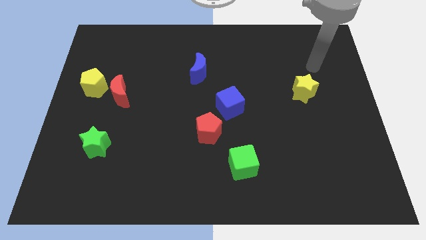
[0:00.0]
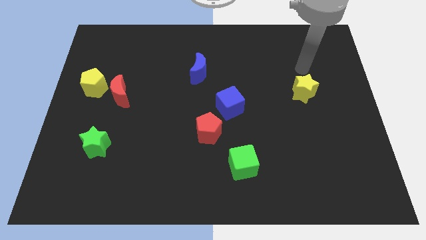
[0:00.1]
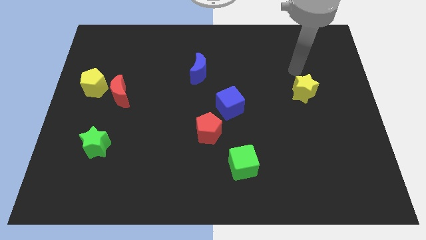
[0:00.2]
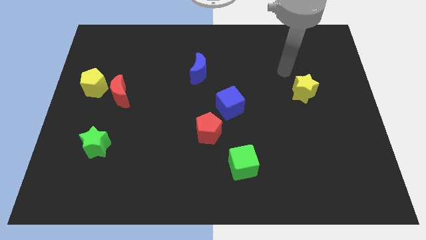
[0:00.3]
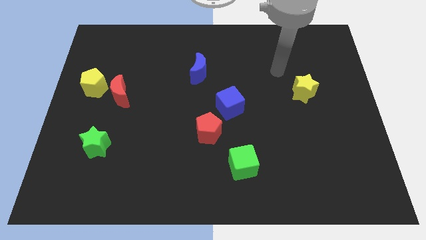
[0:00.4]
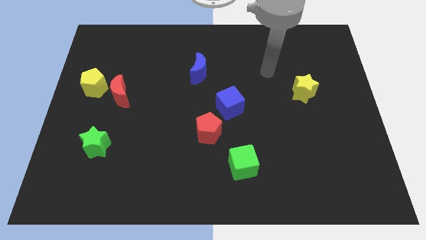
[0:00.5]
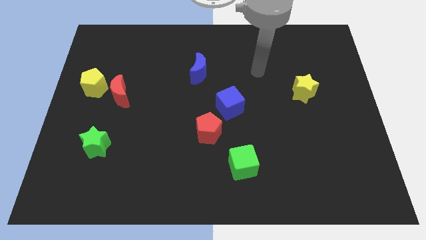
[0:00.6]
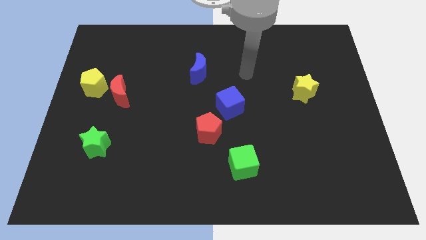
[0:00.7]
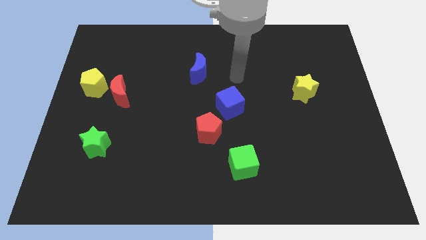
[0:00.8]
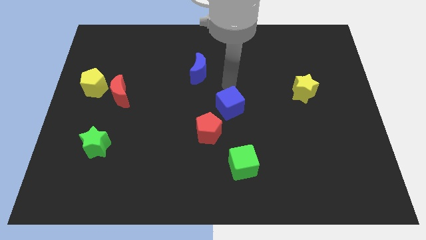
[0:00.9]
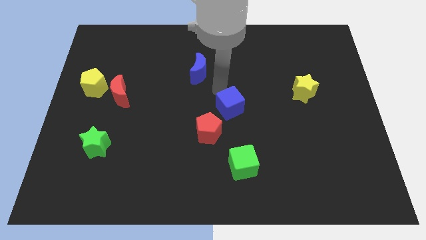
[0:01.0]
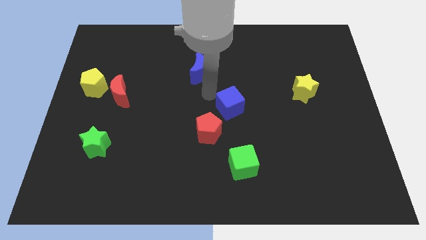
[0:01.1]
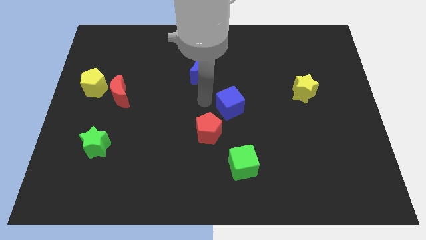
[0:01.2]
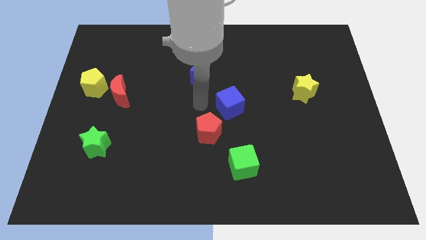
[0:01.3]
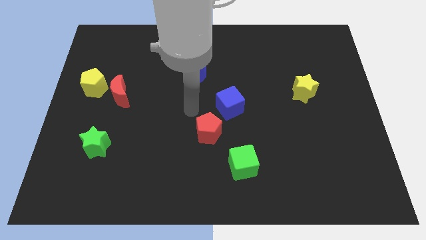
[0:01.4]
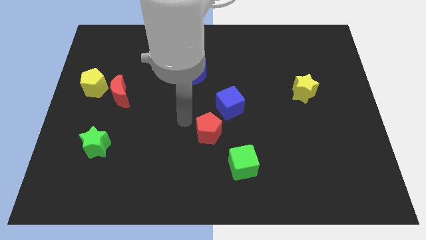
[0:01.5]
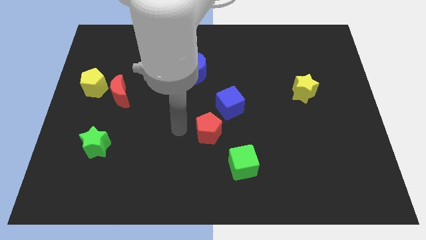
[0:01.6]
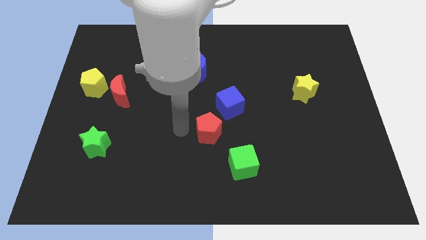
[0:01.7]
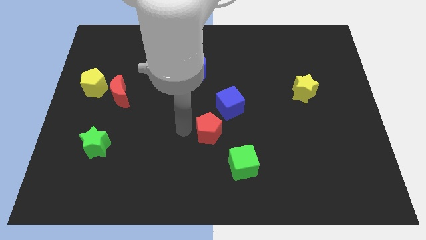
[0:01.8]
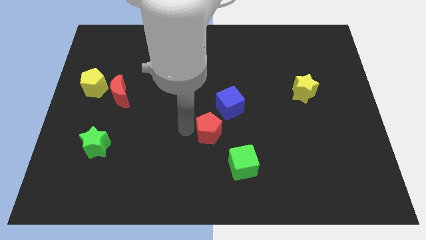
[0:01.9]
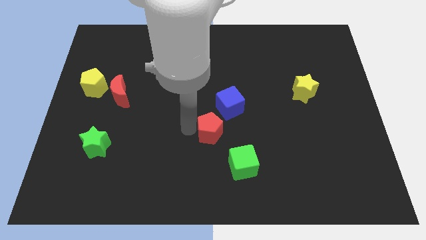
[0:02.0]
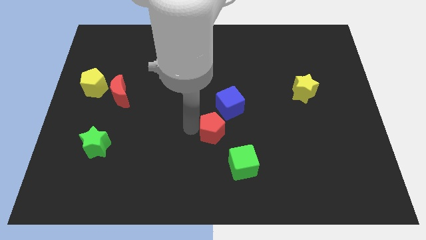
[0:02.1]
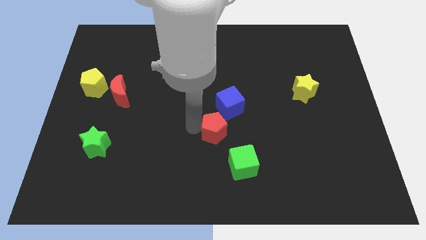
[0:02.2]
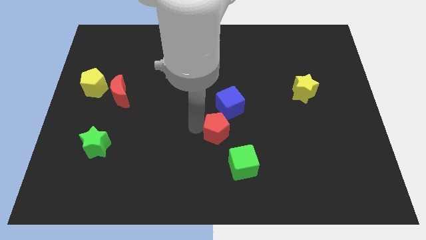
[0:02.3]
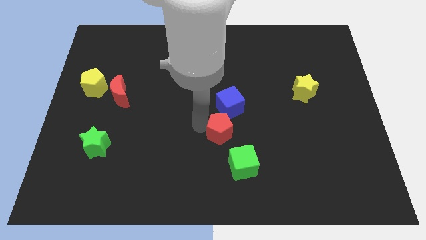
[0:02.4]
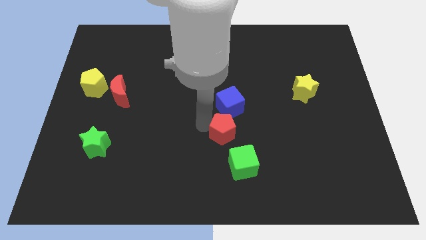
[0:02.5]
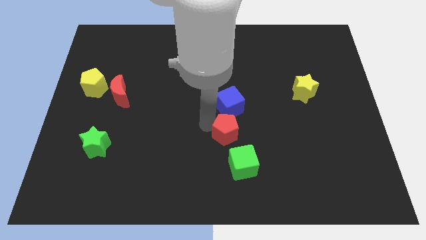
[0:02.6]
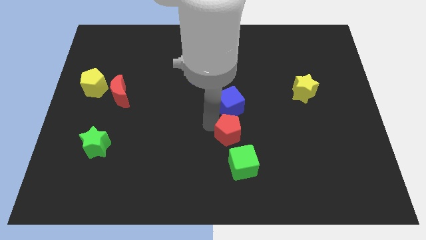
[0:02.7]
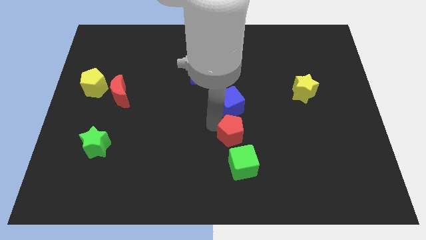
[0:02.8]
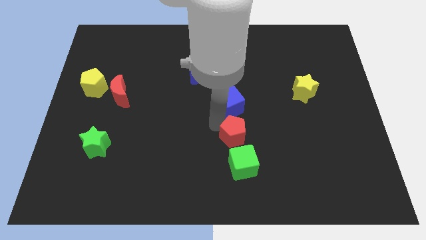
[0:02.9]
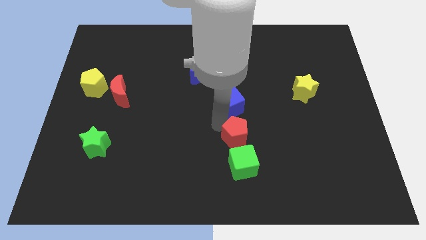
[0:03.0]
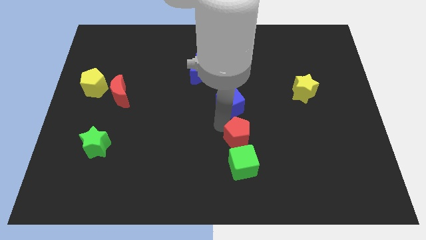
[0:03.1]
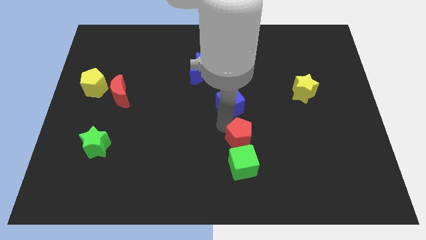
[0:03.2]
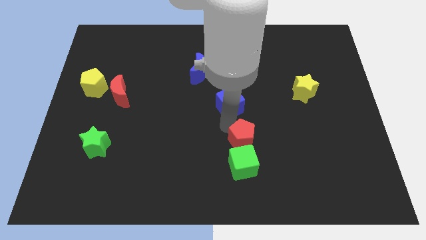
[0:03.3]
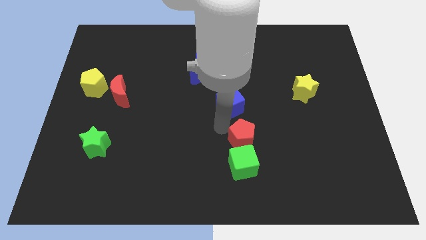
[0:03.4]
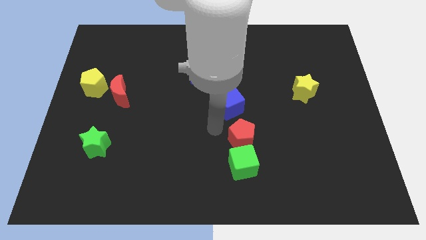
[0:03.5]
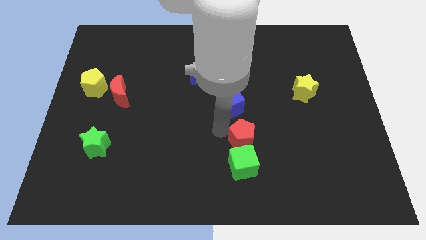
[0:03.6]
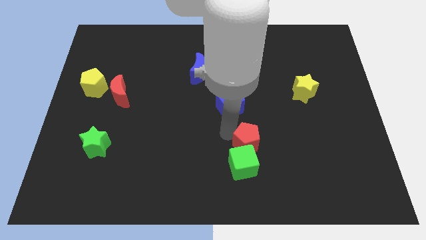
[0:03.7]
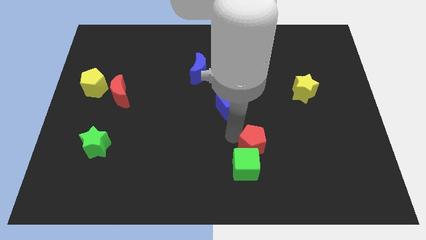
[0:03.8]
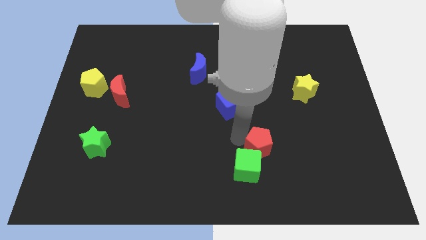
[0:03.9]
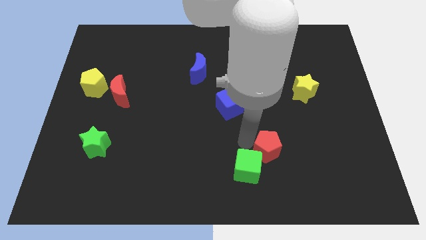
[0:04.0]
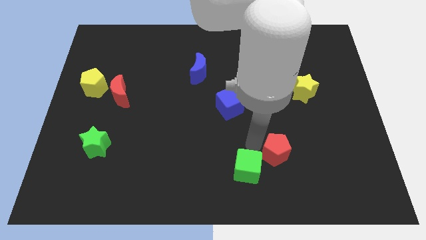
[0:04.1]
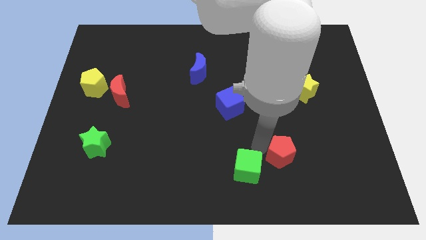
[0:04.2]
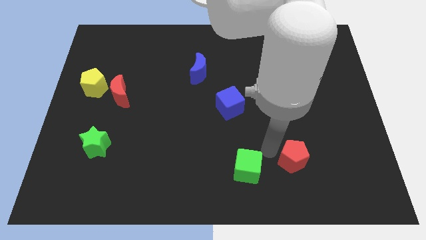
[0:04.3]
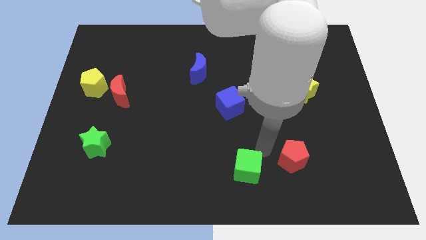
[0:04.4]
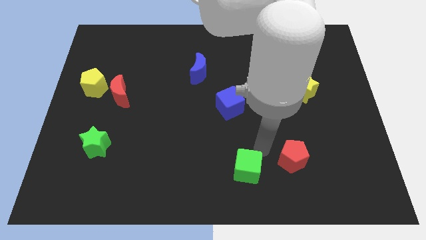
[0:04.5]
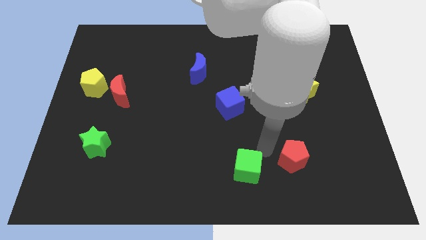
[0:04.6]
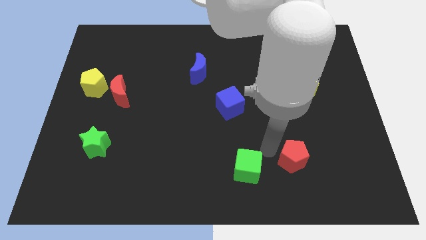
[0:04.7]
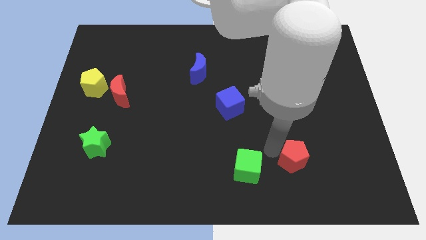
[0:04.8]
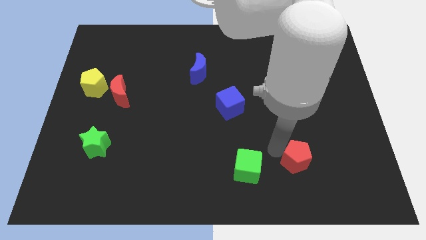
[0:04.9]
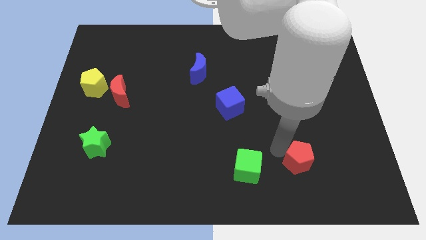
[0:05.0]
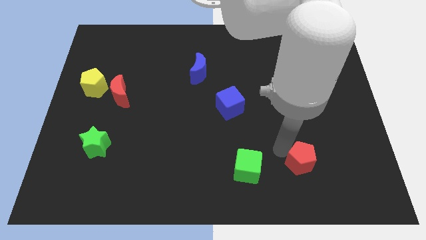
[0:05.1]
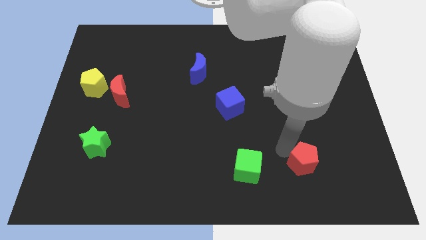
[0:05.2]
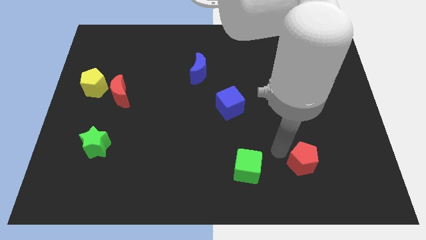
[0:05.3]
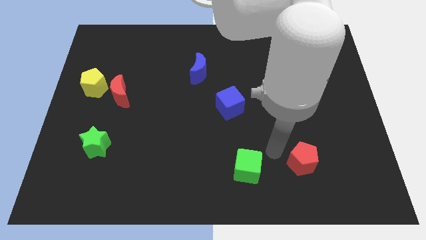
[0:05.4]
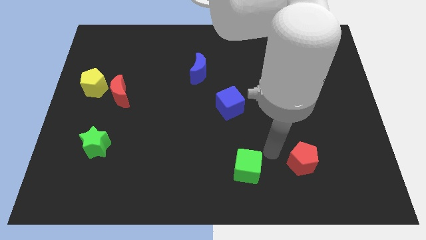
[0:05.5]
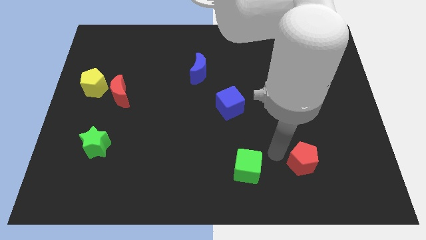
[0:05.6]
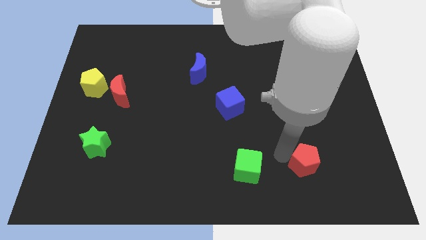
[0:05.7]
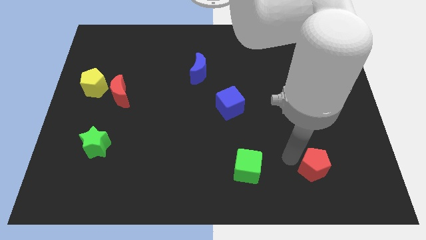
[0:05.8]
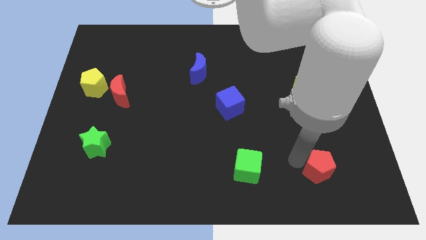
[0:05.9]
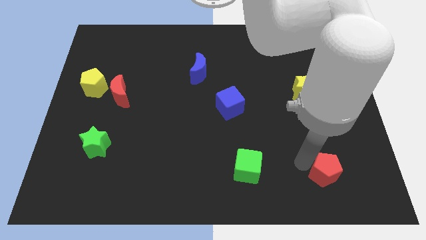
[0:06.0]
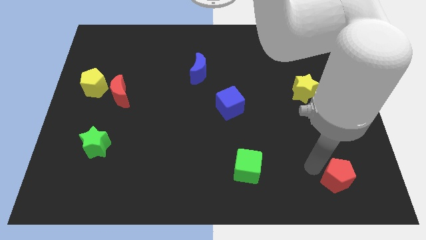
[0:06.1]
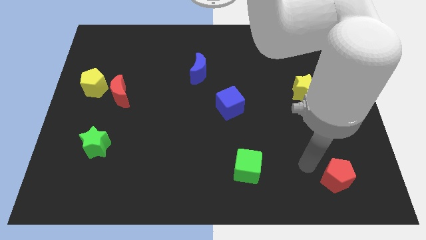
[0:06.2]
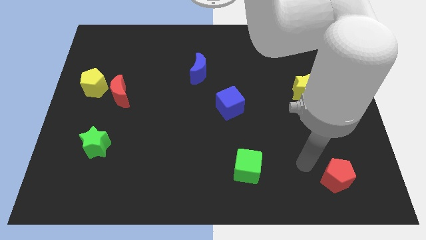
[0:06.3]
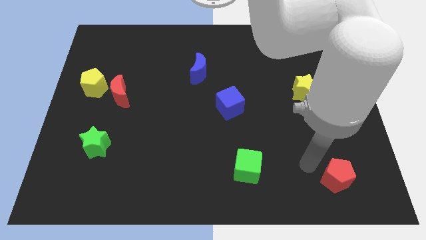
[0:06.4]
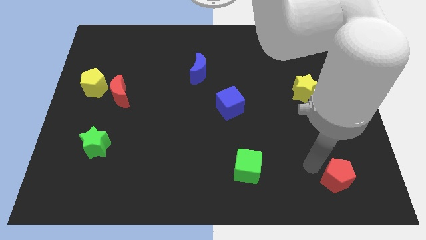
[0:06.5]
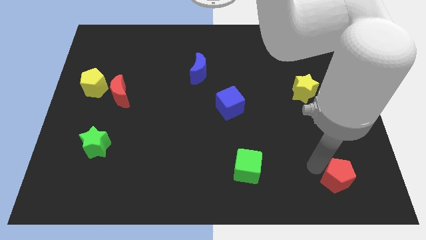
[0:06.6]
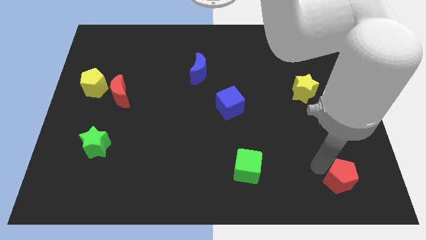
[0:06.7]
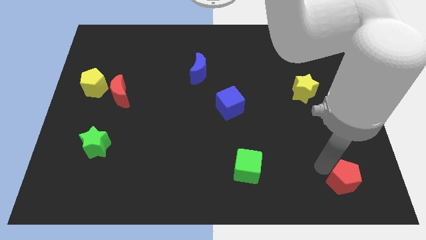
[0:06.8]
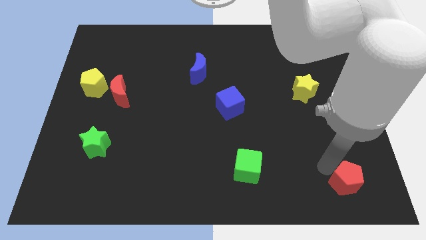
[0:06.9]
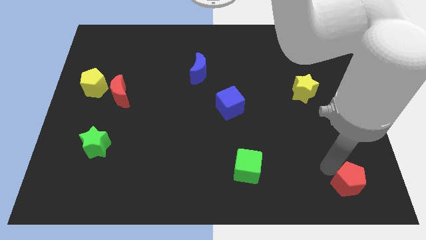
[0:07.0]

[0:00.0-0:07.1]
move the red pentagon to the bottom right corner

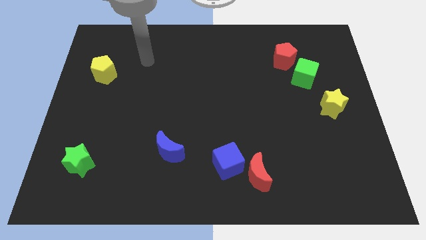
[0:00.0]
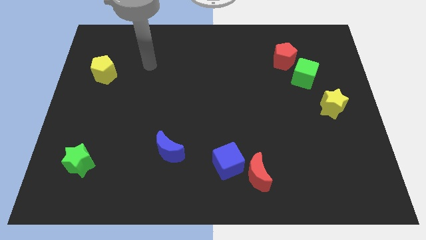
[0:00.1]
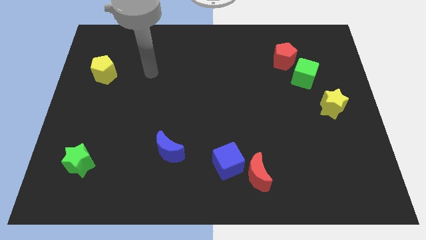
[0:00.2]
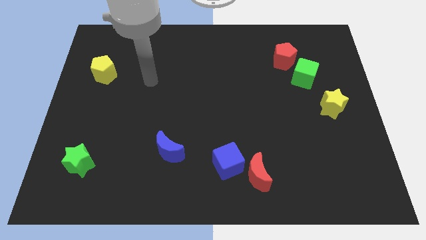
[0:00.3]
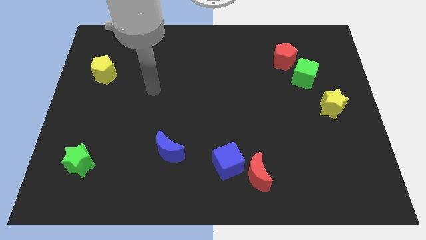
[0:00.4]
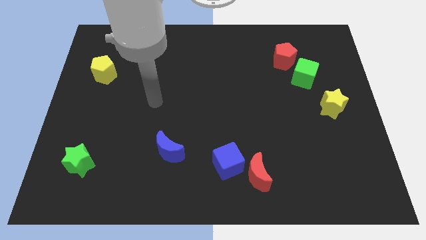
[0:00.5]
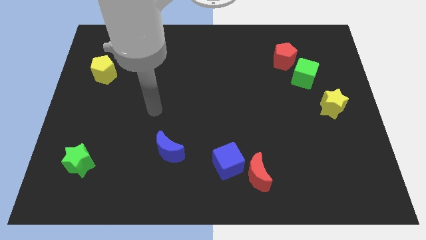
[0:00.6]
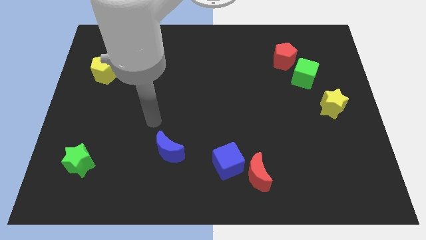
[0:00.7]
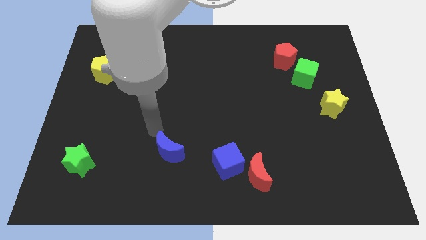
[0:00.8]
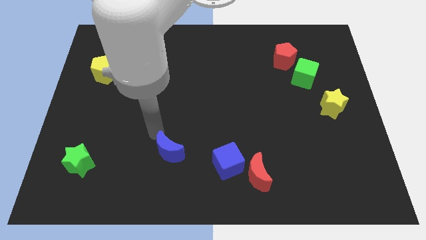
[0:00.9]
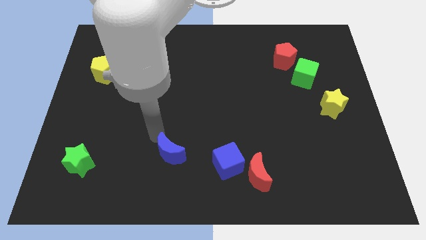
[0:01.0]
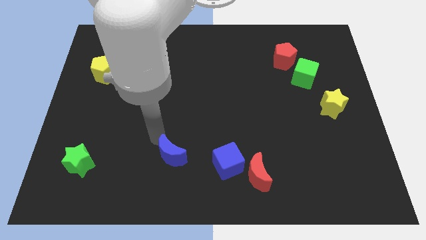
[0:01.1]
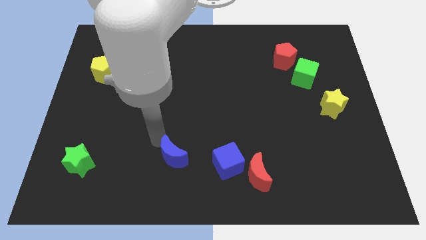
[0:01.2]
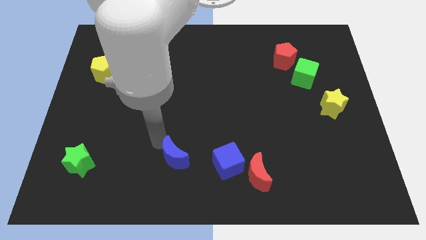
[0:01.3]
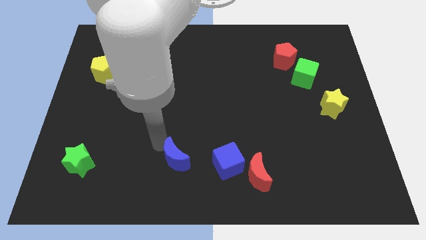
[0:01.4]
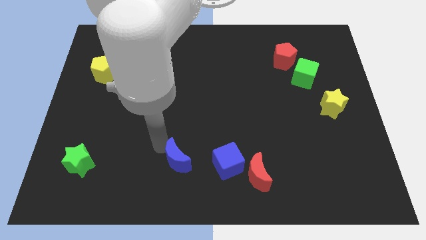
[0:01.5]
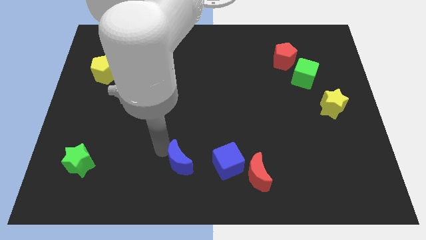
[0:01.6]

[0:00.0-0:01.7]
put the blue moon to the bottom side
